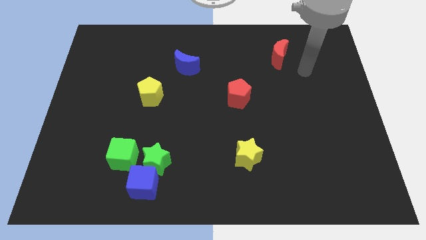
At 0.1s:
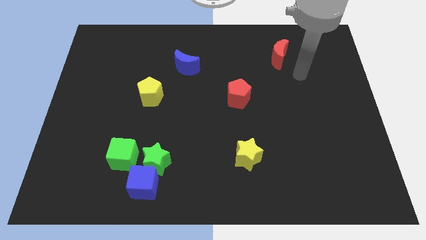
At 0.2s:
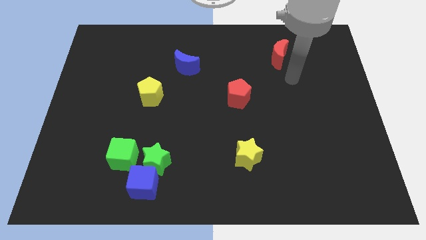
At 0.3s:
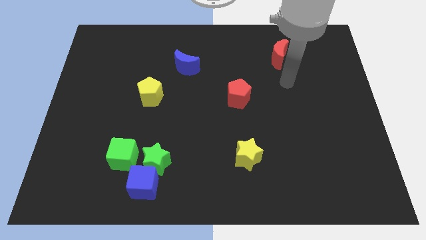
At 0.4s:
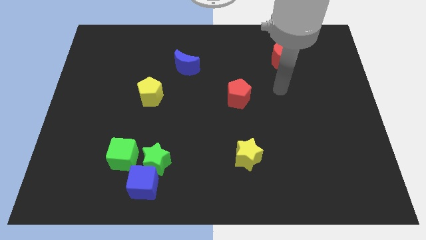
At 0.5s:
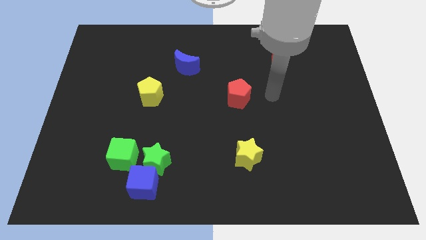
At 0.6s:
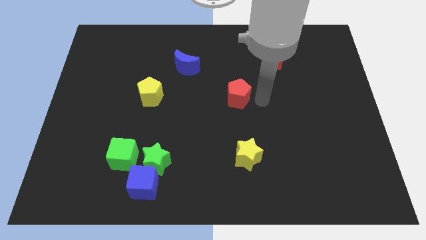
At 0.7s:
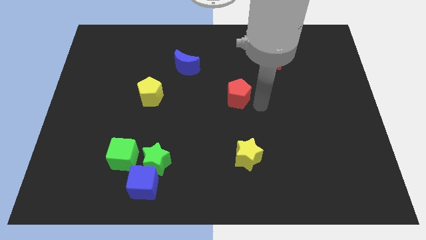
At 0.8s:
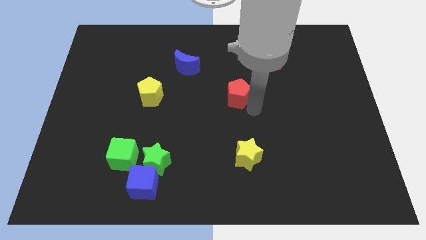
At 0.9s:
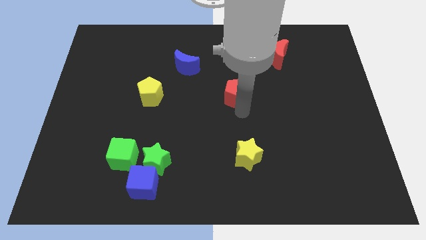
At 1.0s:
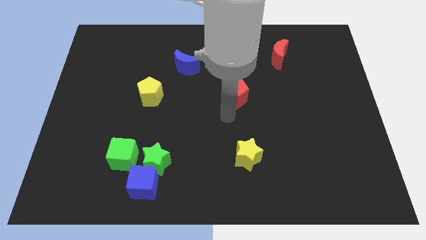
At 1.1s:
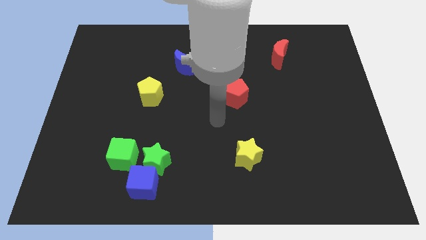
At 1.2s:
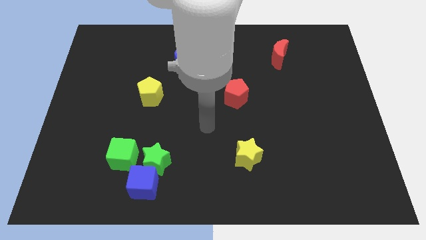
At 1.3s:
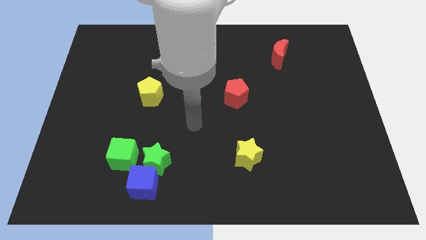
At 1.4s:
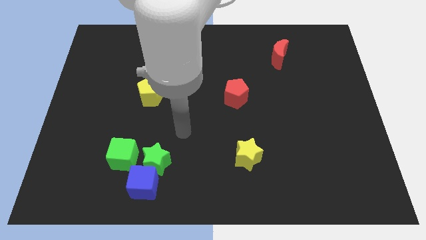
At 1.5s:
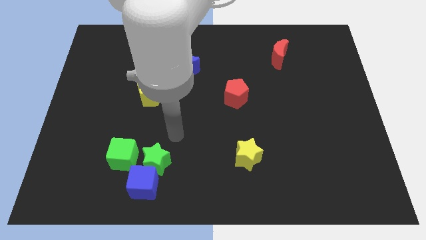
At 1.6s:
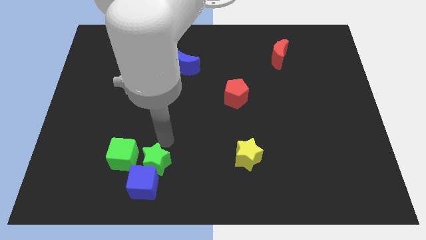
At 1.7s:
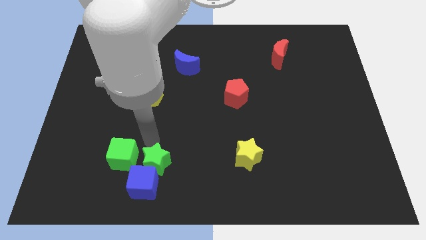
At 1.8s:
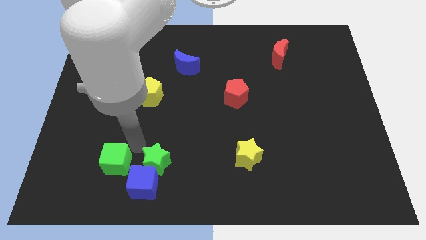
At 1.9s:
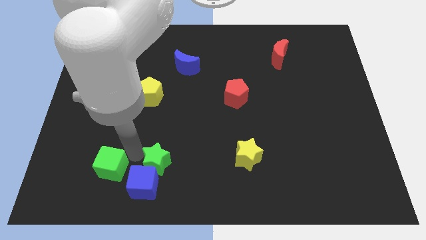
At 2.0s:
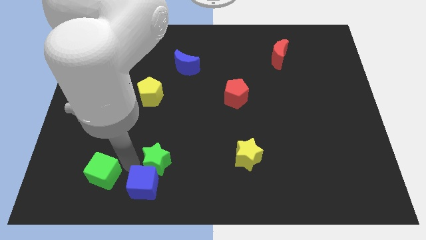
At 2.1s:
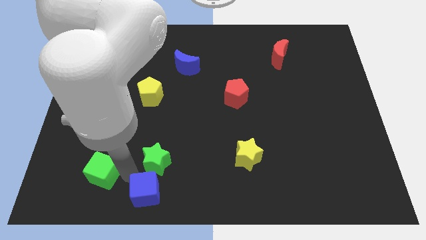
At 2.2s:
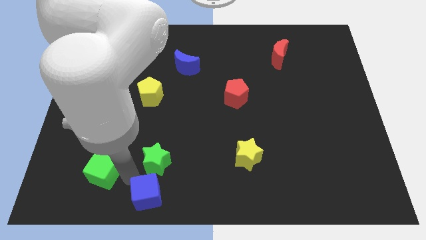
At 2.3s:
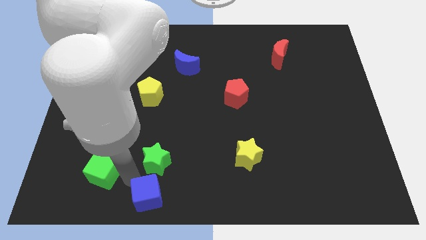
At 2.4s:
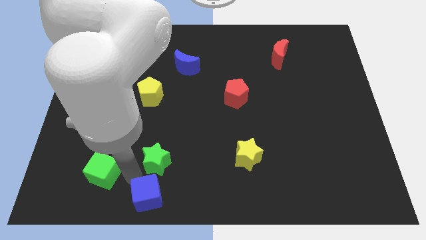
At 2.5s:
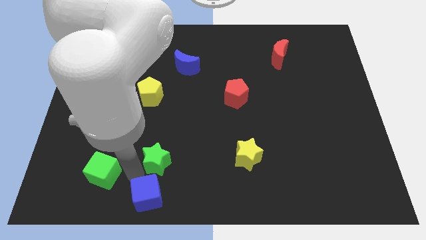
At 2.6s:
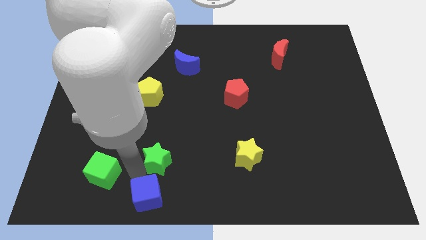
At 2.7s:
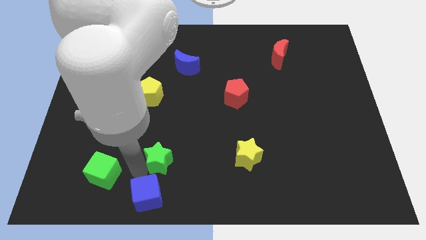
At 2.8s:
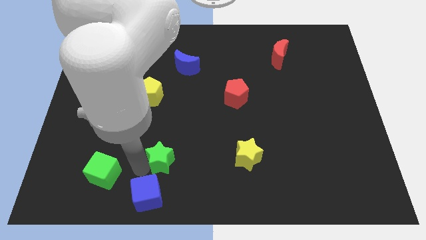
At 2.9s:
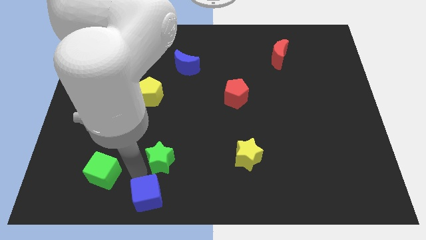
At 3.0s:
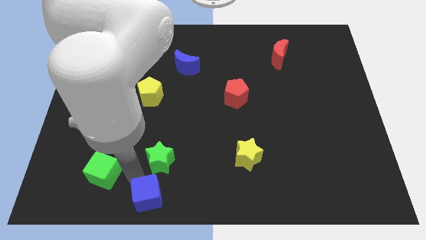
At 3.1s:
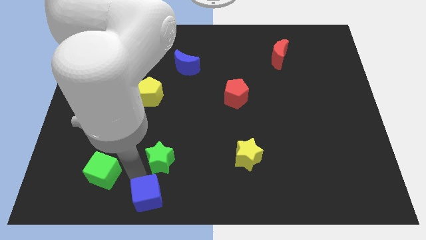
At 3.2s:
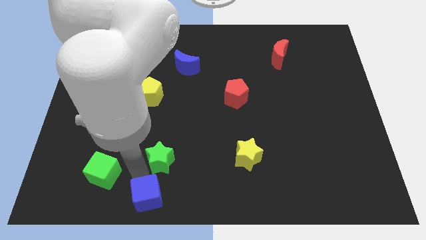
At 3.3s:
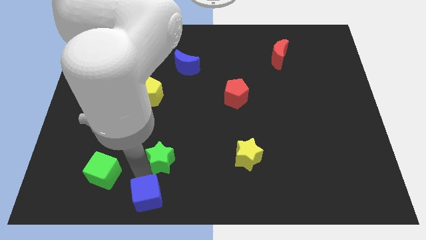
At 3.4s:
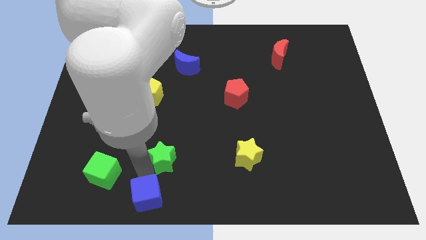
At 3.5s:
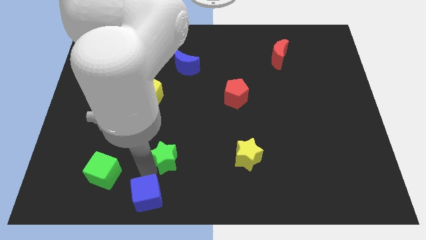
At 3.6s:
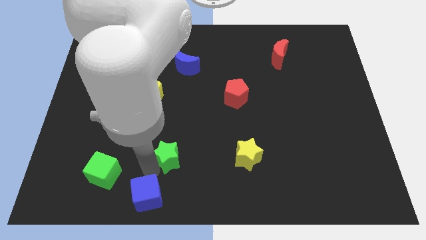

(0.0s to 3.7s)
separate the green star from the blue cube and green cube

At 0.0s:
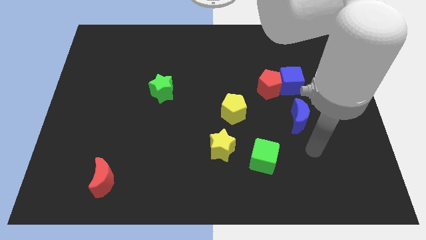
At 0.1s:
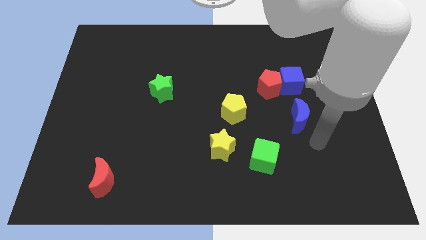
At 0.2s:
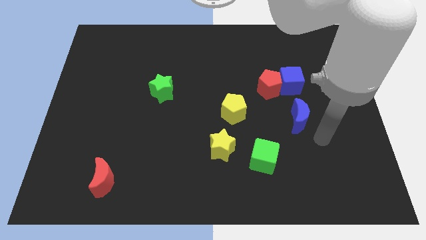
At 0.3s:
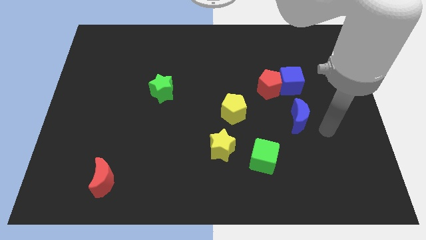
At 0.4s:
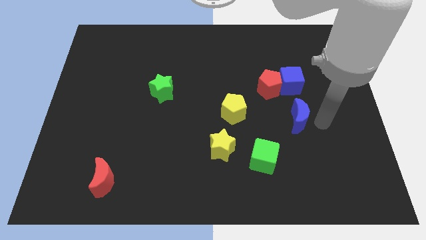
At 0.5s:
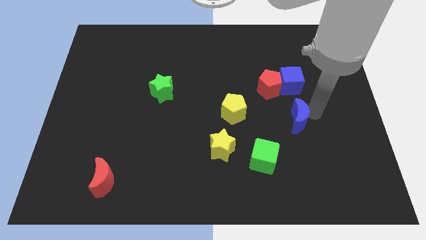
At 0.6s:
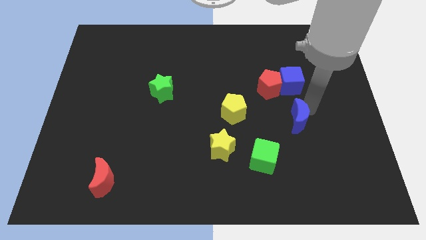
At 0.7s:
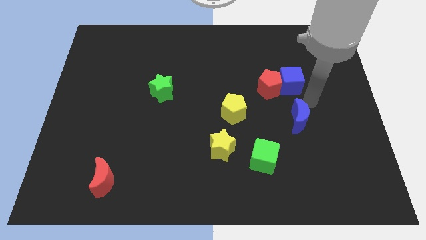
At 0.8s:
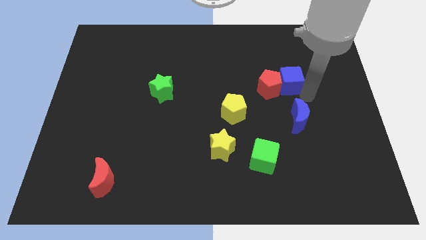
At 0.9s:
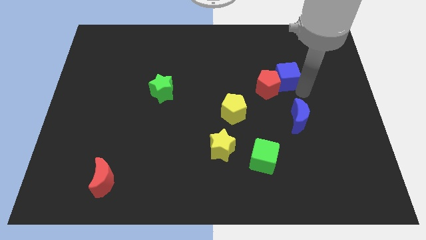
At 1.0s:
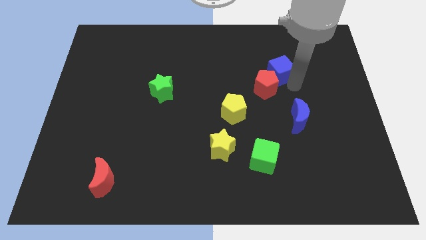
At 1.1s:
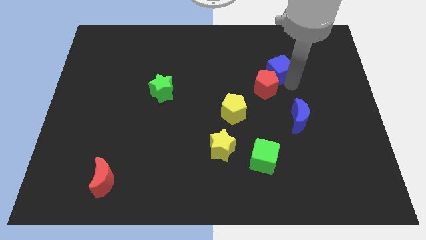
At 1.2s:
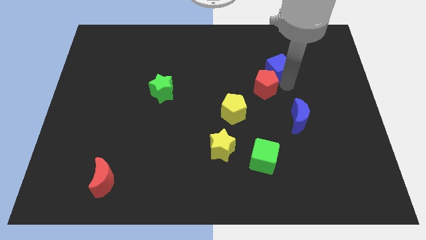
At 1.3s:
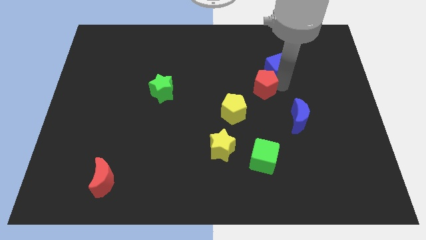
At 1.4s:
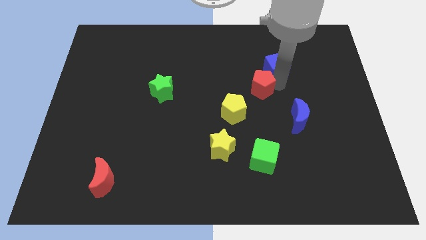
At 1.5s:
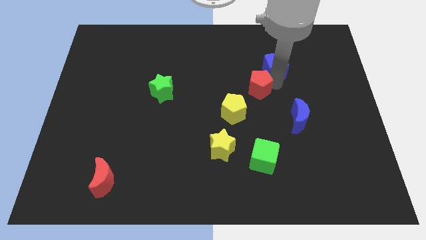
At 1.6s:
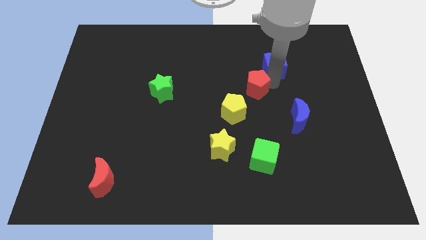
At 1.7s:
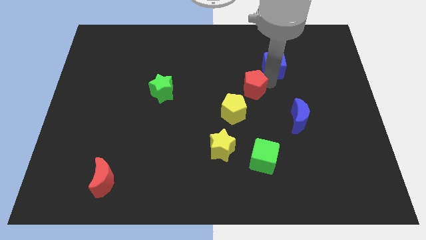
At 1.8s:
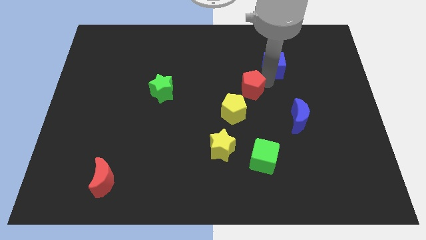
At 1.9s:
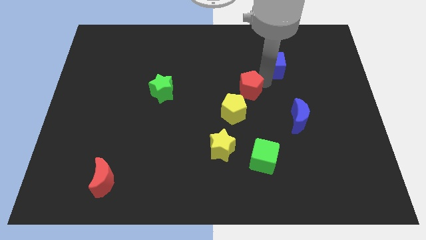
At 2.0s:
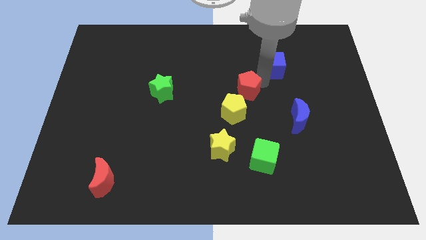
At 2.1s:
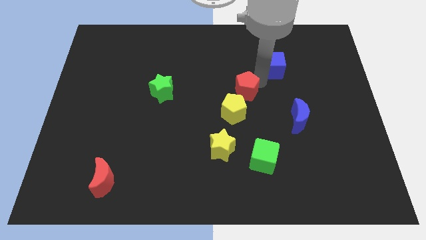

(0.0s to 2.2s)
separate the red pentagon from the blue cube

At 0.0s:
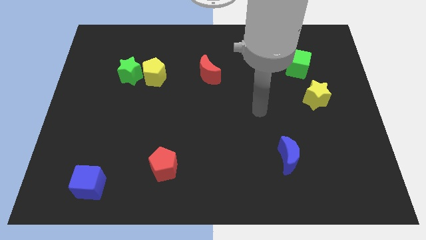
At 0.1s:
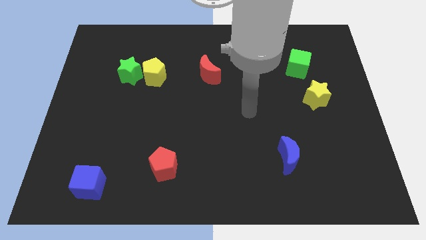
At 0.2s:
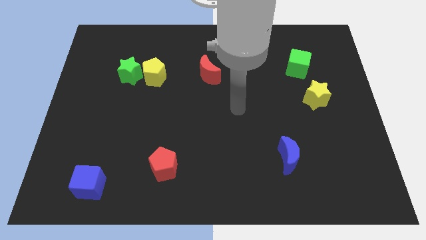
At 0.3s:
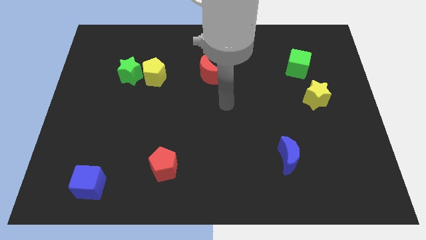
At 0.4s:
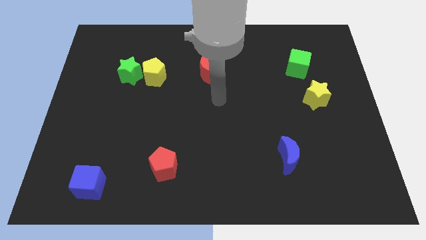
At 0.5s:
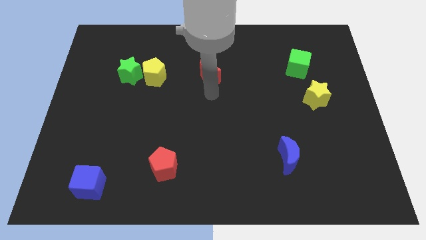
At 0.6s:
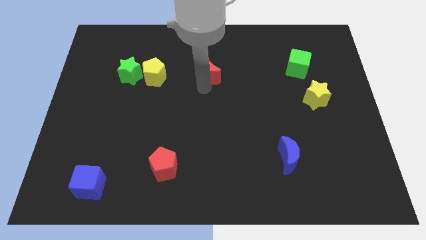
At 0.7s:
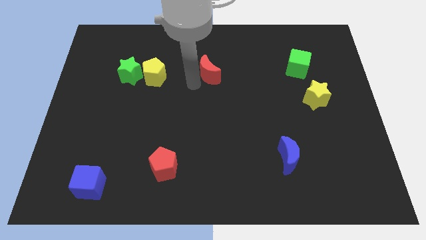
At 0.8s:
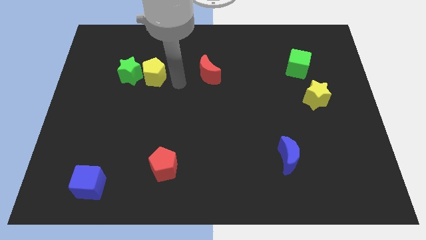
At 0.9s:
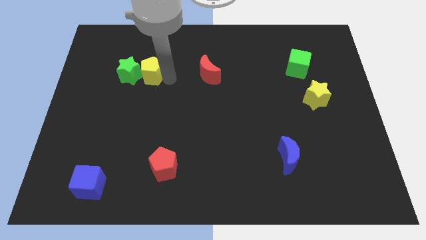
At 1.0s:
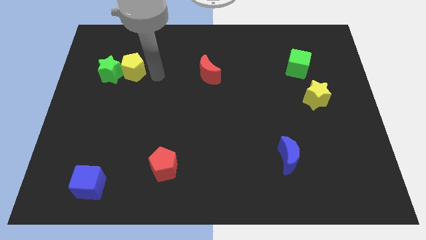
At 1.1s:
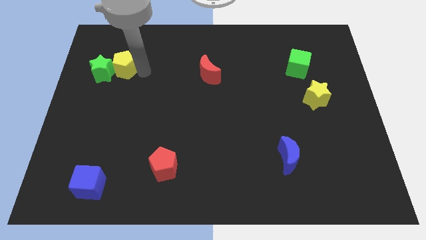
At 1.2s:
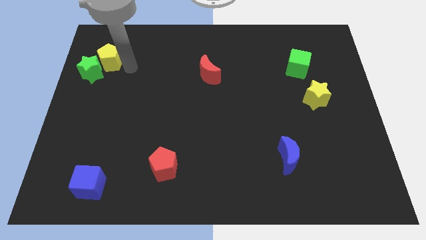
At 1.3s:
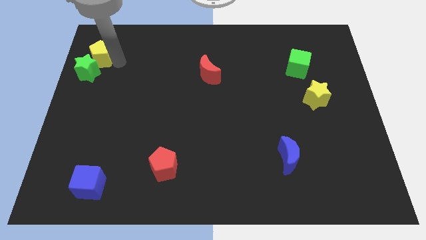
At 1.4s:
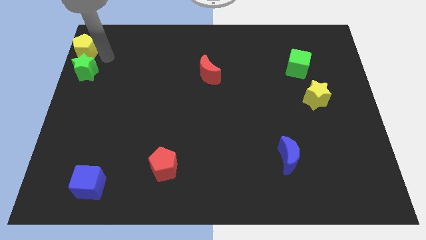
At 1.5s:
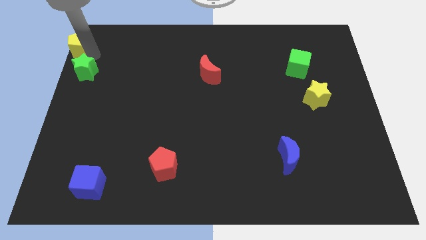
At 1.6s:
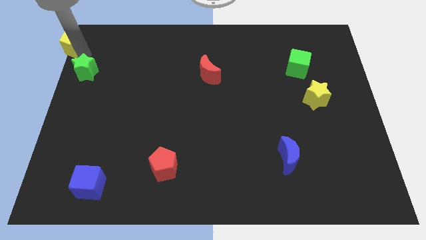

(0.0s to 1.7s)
move the green star away from the yellow pentagon

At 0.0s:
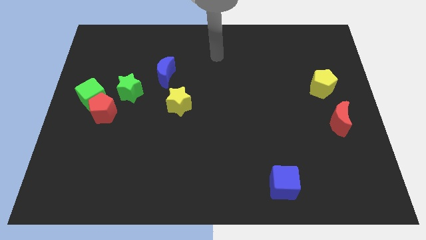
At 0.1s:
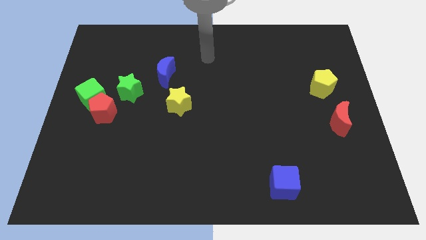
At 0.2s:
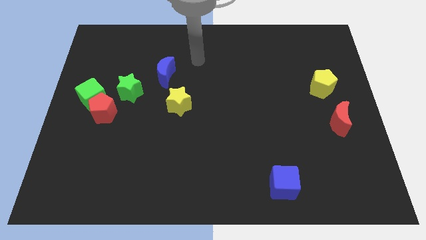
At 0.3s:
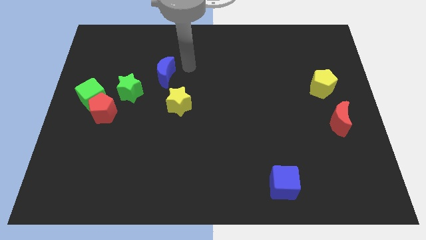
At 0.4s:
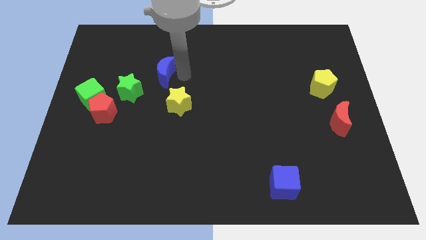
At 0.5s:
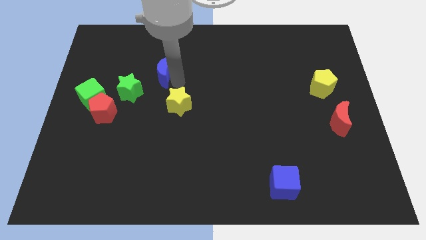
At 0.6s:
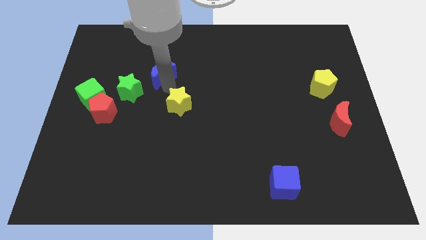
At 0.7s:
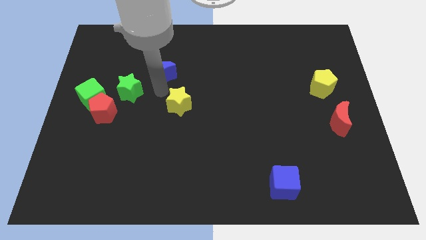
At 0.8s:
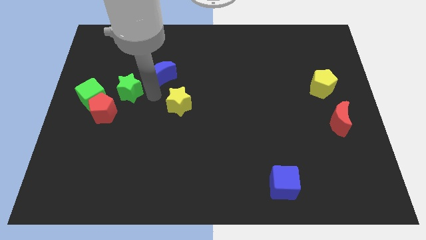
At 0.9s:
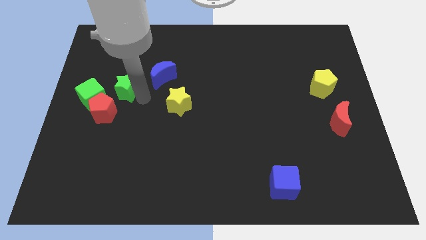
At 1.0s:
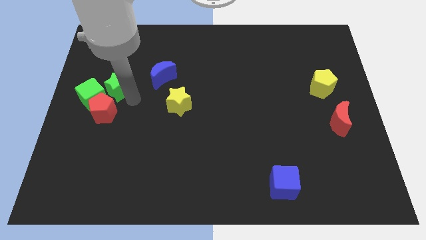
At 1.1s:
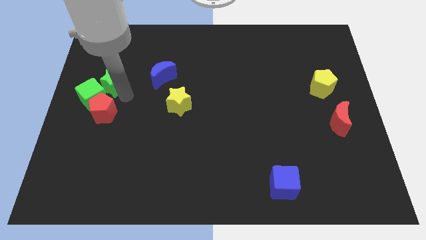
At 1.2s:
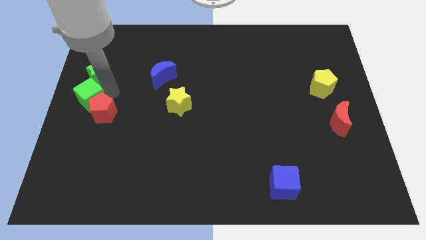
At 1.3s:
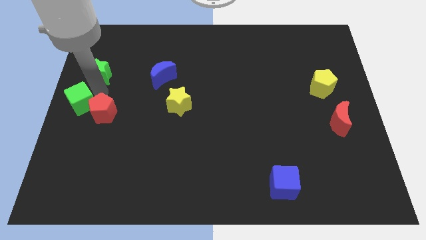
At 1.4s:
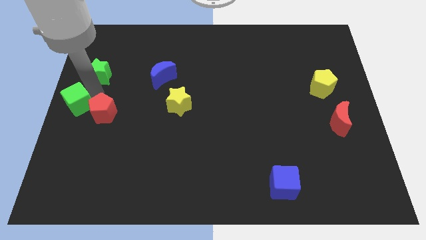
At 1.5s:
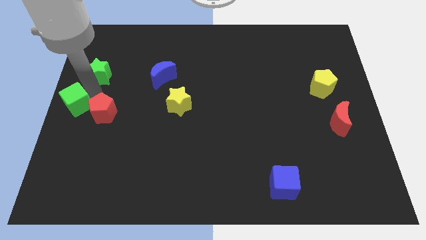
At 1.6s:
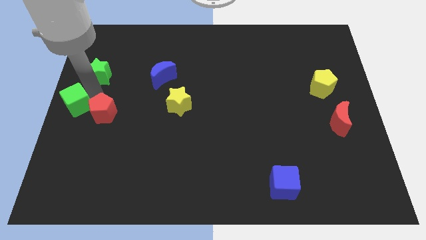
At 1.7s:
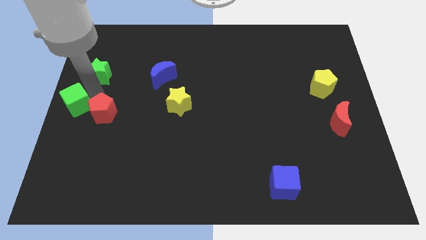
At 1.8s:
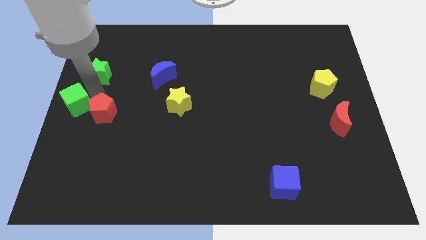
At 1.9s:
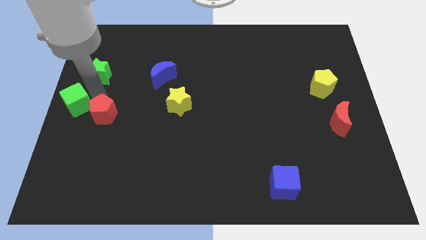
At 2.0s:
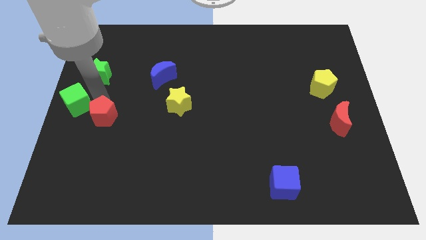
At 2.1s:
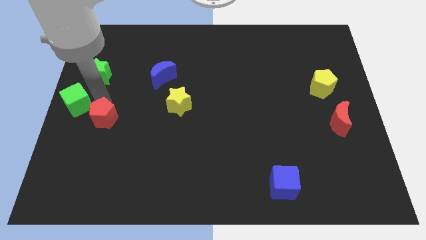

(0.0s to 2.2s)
pull the red pentagon apart from the green cube and green star
